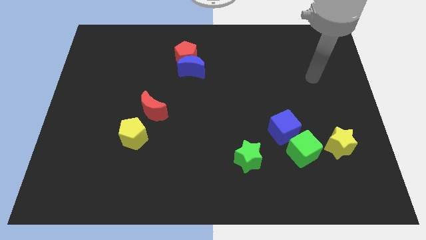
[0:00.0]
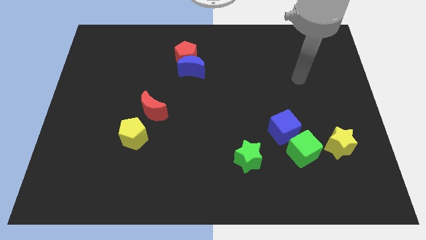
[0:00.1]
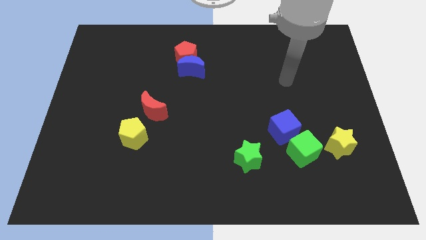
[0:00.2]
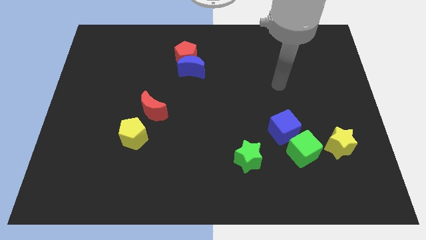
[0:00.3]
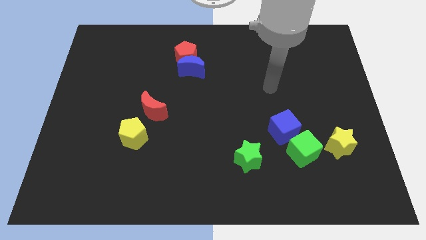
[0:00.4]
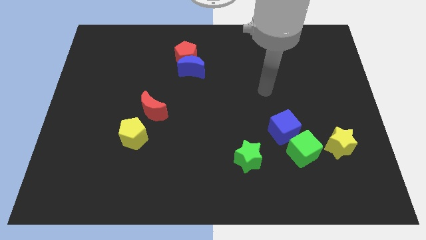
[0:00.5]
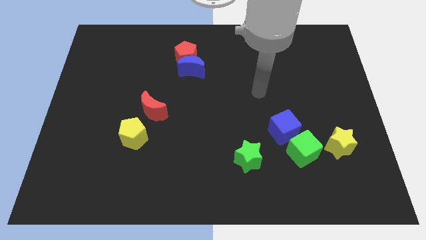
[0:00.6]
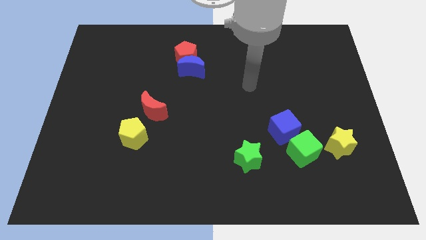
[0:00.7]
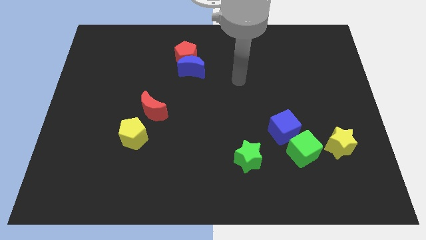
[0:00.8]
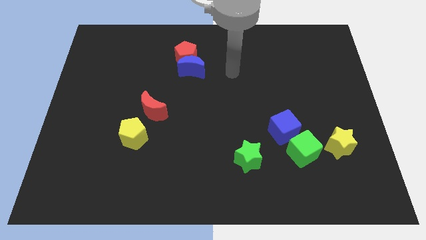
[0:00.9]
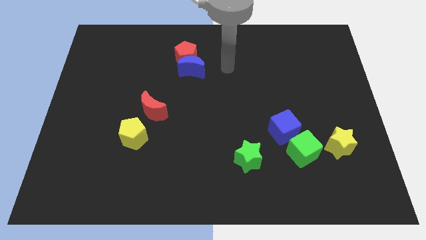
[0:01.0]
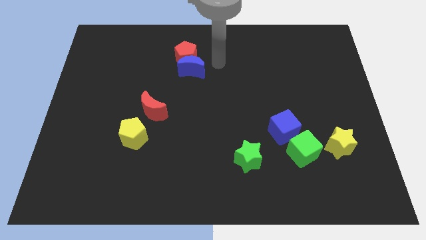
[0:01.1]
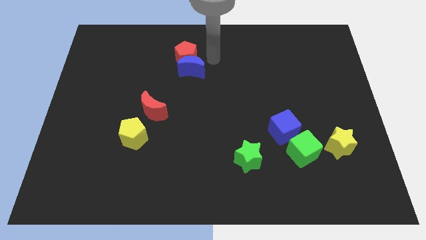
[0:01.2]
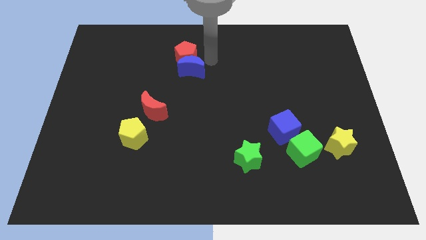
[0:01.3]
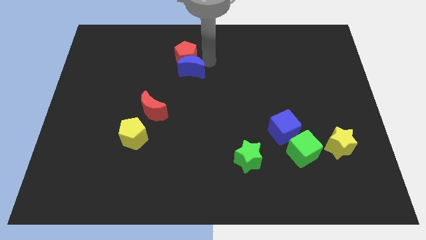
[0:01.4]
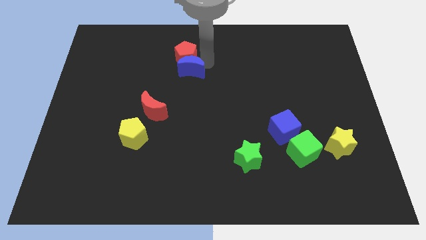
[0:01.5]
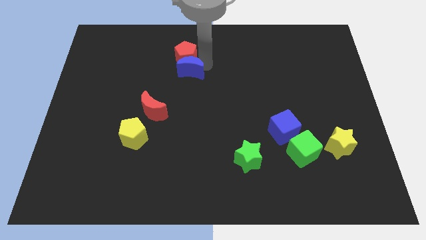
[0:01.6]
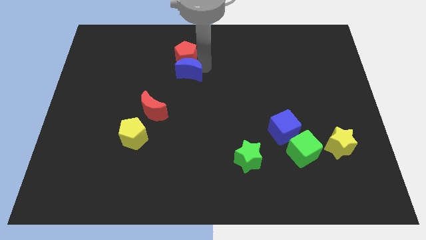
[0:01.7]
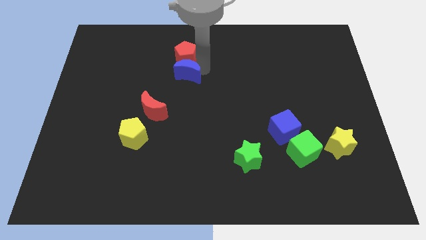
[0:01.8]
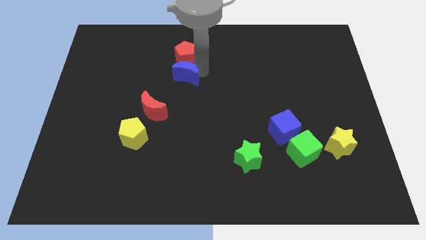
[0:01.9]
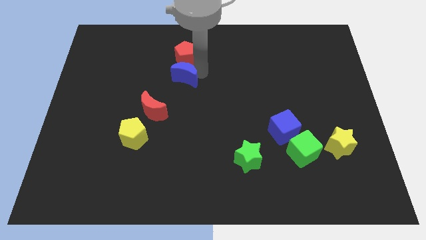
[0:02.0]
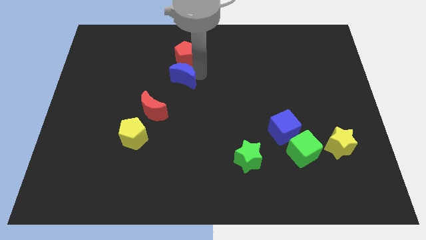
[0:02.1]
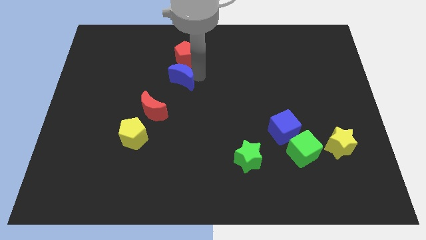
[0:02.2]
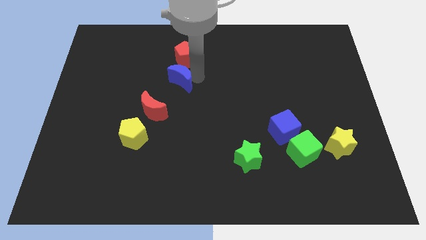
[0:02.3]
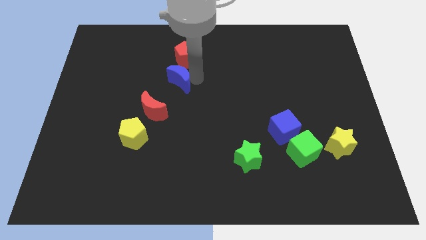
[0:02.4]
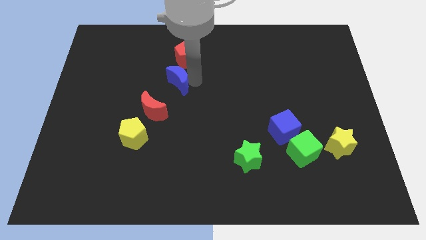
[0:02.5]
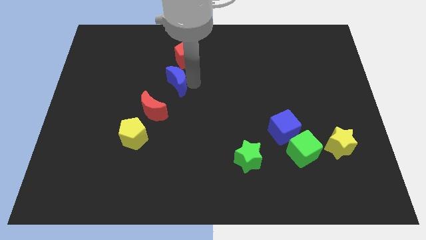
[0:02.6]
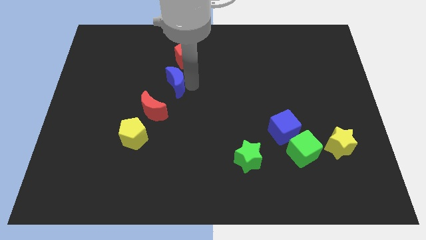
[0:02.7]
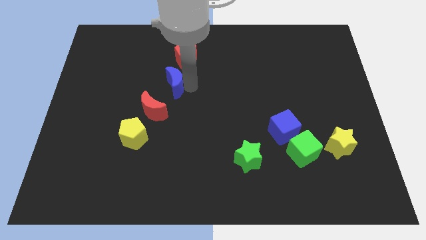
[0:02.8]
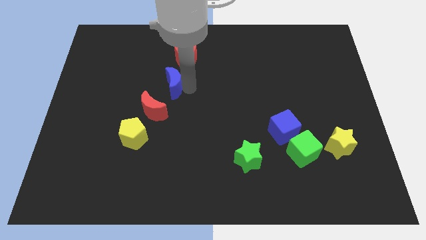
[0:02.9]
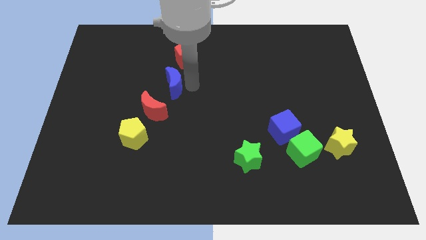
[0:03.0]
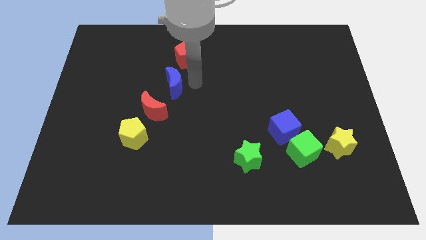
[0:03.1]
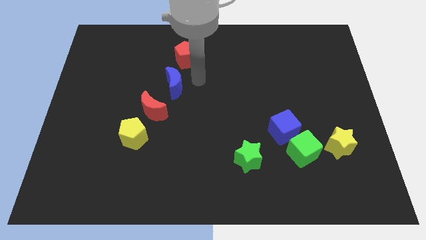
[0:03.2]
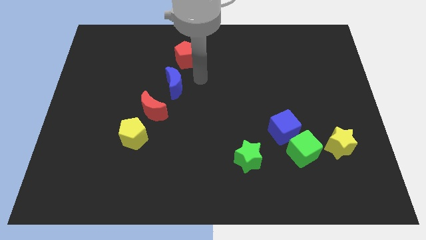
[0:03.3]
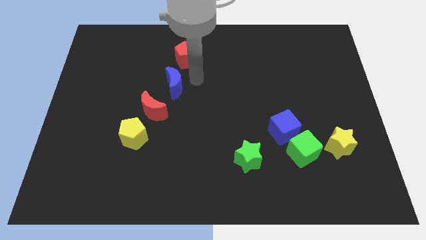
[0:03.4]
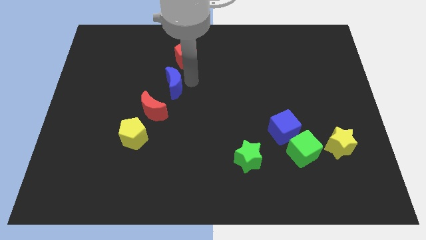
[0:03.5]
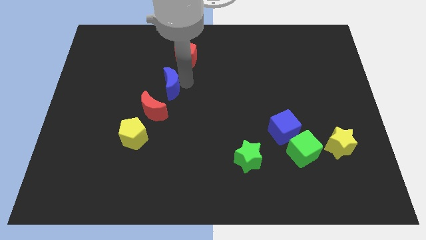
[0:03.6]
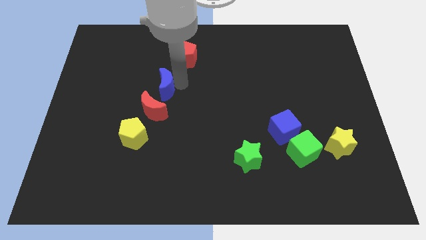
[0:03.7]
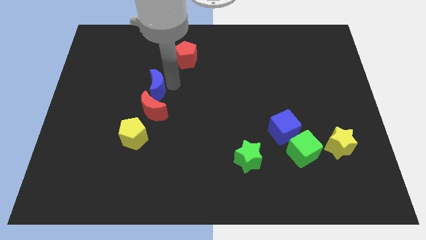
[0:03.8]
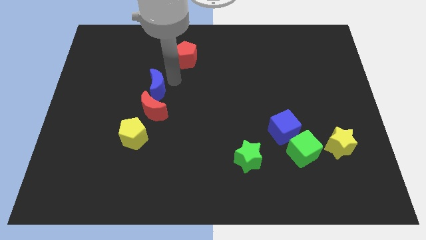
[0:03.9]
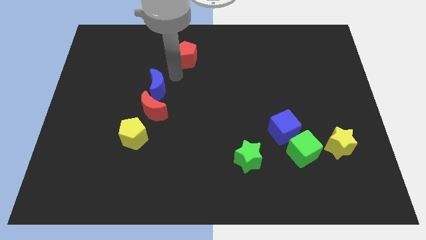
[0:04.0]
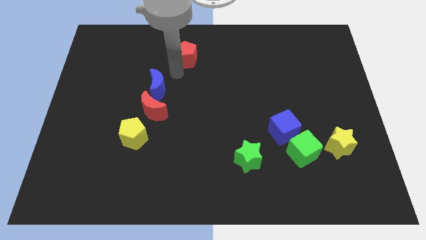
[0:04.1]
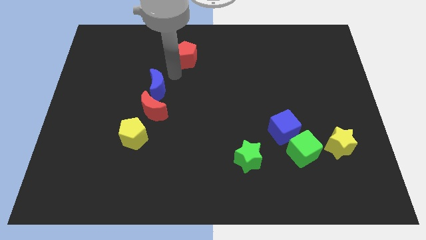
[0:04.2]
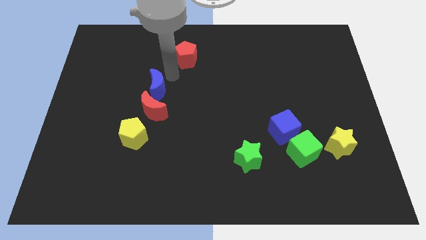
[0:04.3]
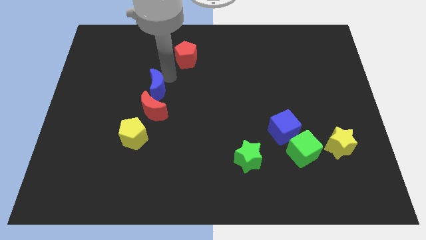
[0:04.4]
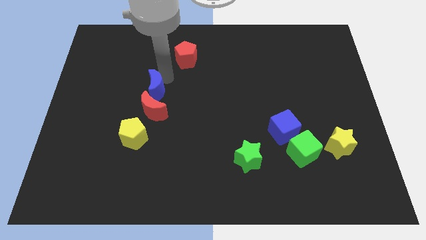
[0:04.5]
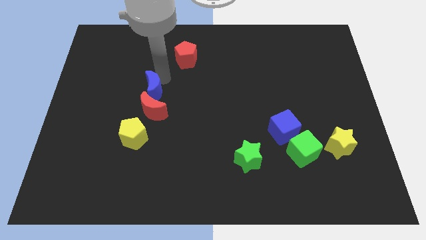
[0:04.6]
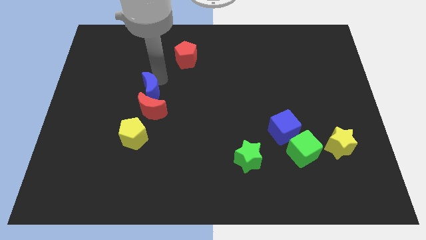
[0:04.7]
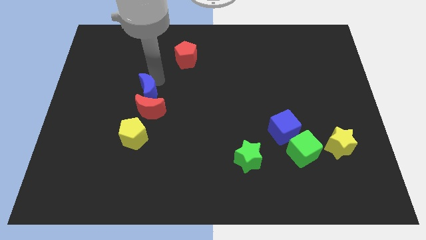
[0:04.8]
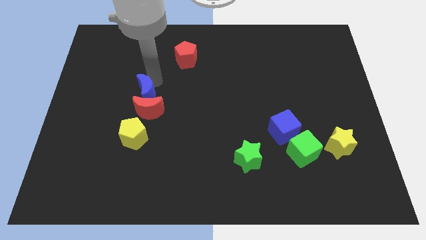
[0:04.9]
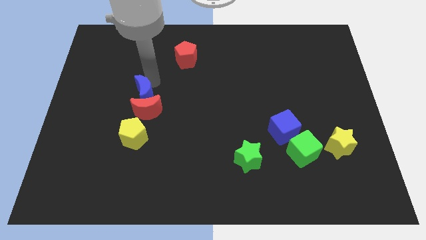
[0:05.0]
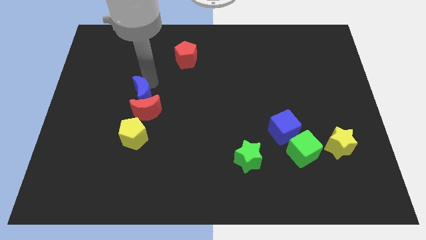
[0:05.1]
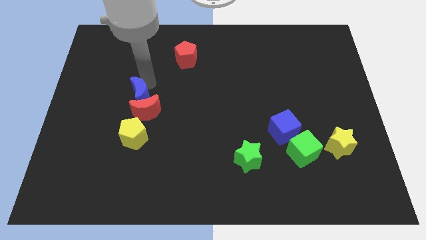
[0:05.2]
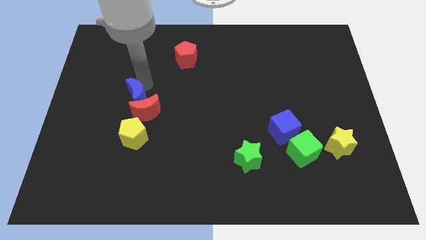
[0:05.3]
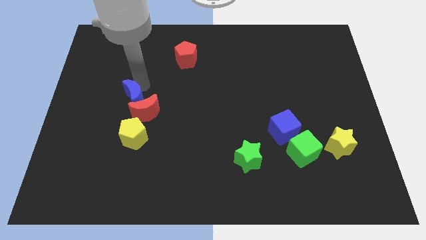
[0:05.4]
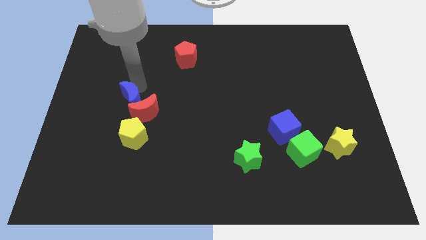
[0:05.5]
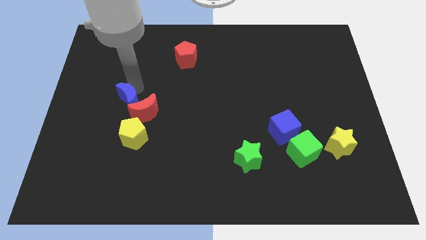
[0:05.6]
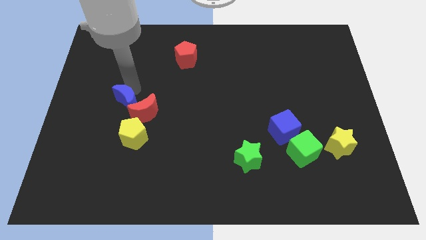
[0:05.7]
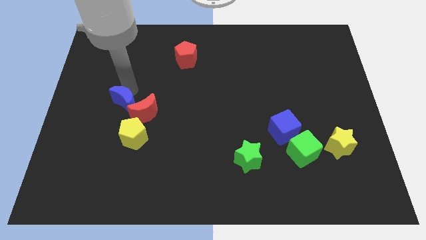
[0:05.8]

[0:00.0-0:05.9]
put the blue moon to the top left of the yellow pentagon

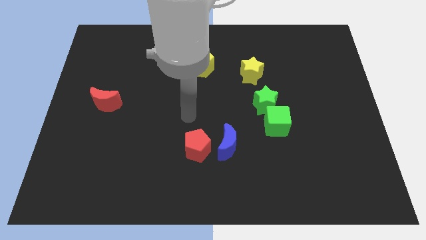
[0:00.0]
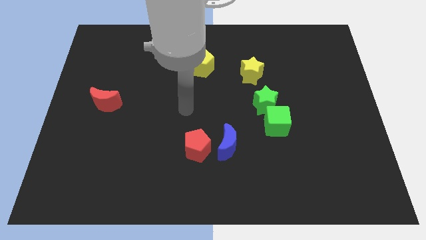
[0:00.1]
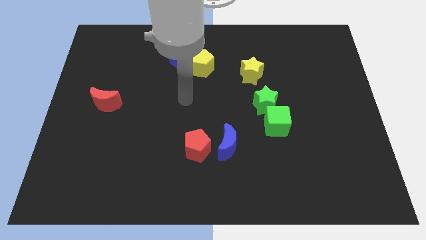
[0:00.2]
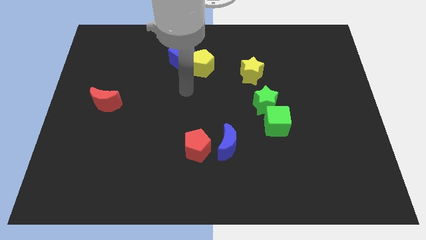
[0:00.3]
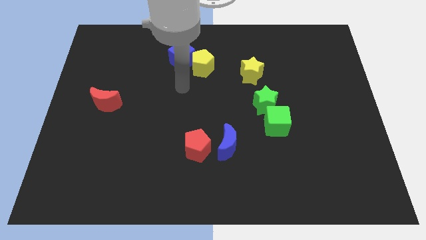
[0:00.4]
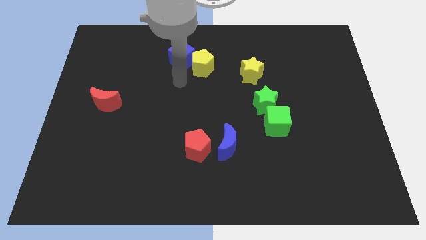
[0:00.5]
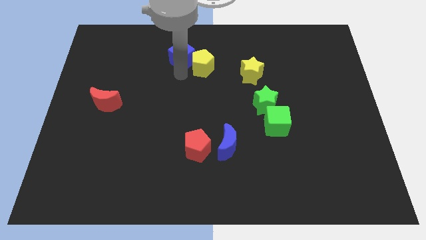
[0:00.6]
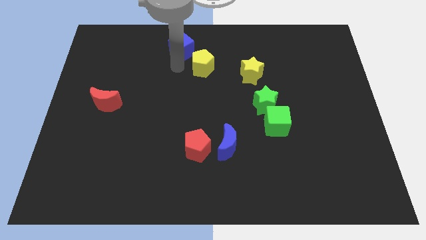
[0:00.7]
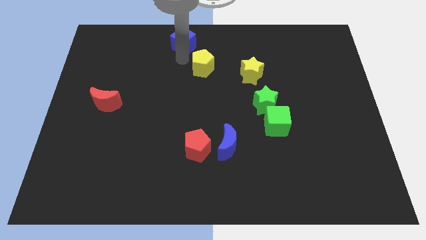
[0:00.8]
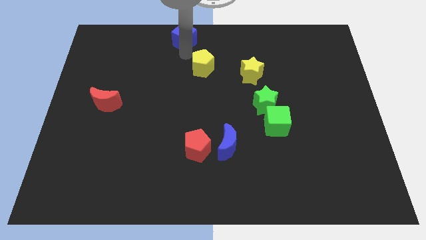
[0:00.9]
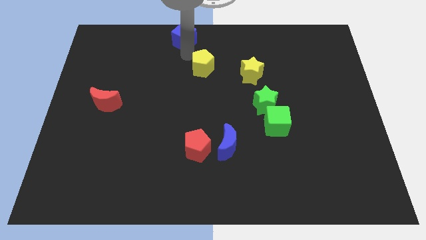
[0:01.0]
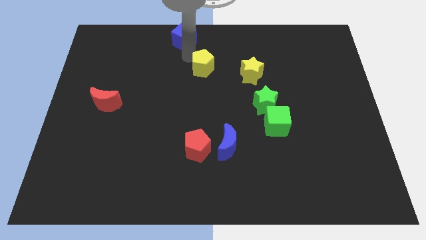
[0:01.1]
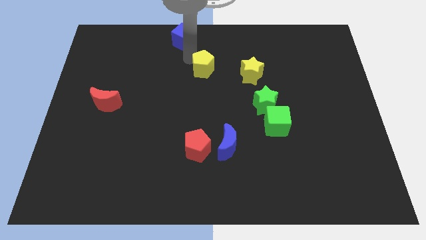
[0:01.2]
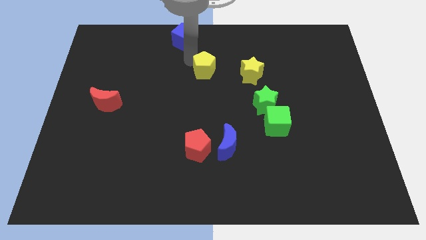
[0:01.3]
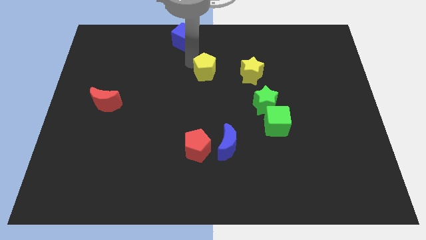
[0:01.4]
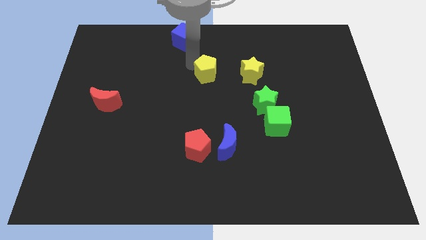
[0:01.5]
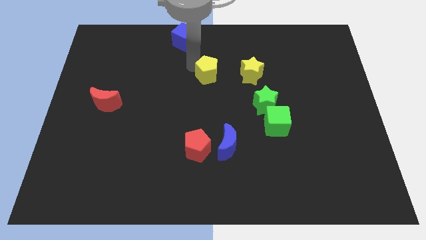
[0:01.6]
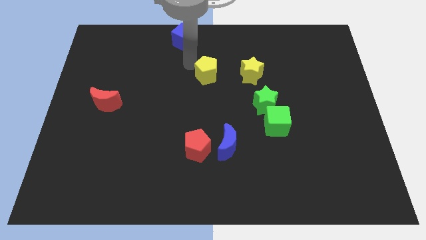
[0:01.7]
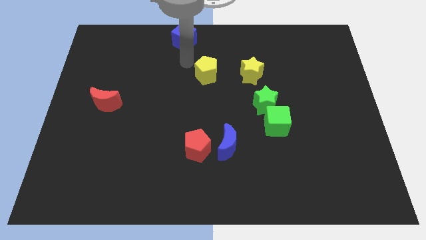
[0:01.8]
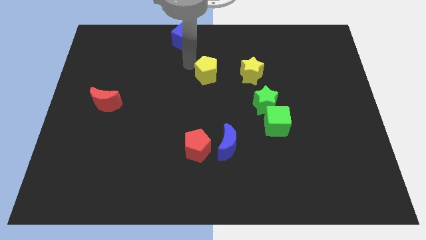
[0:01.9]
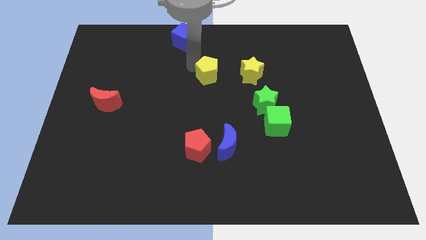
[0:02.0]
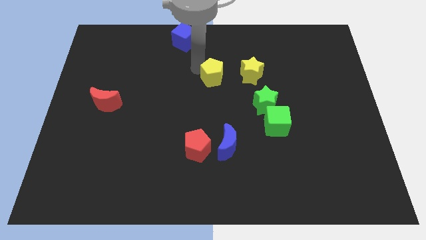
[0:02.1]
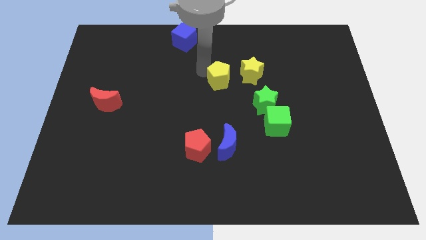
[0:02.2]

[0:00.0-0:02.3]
push the yellow pentagon to the bottom left side of the yellow star
